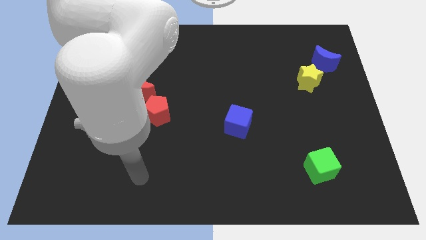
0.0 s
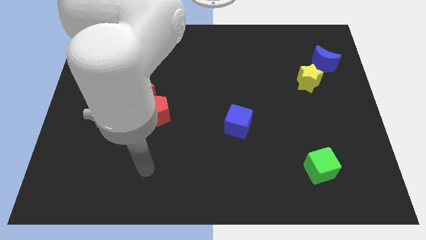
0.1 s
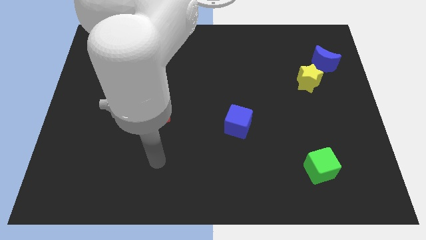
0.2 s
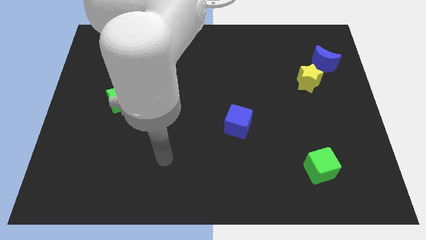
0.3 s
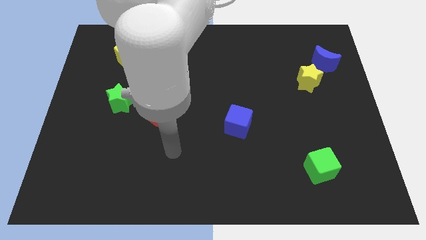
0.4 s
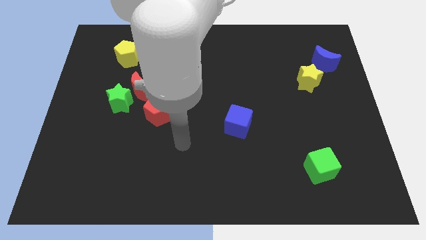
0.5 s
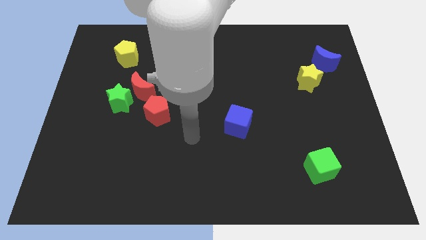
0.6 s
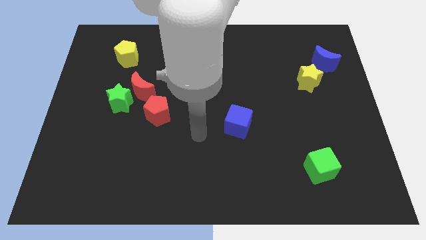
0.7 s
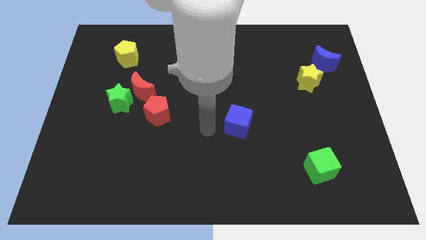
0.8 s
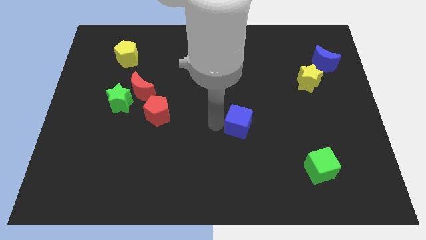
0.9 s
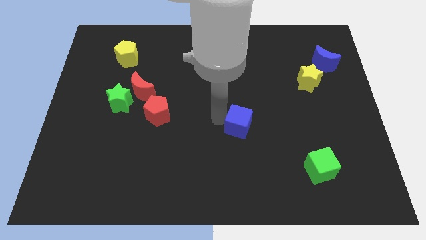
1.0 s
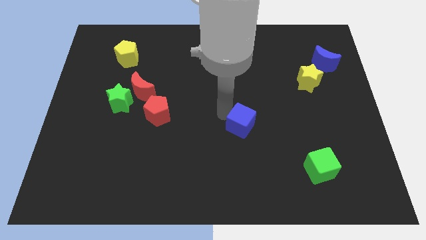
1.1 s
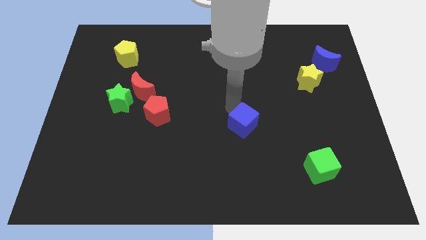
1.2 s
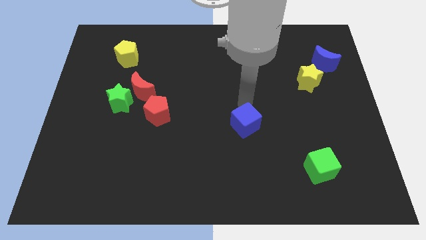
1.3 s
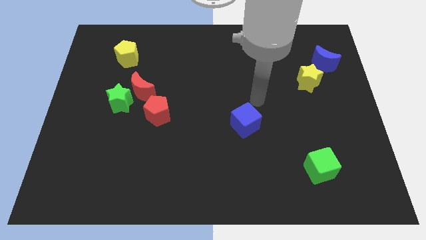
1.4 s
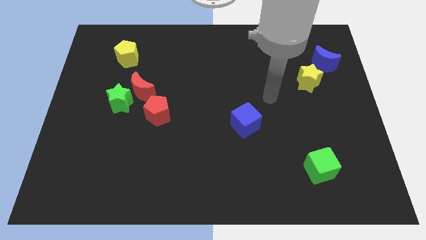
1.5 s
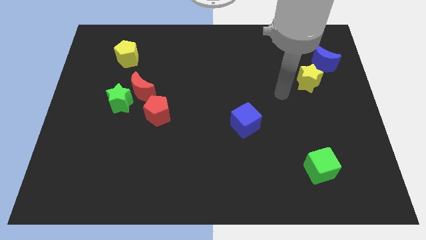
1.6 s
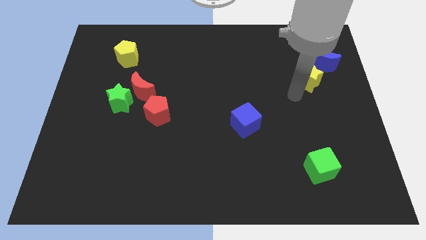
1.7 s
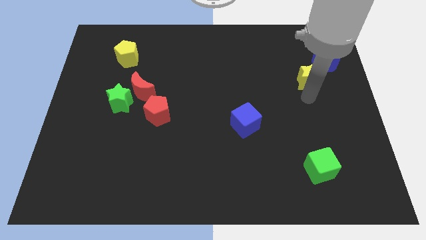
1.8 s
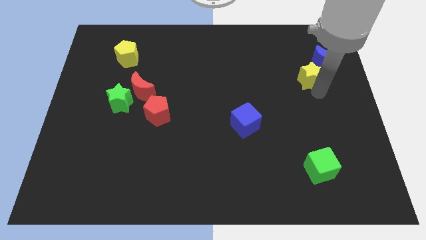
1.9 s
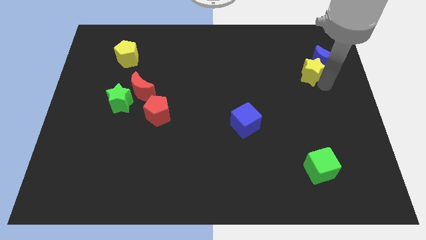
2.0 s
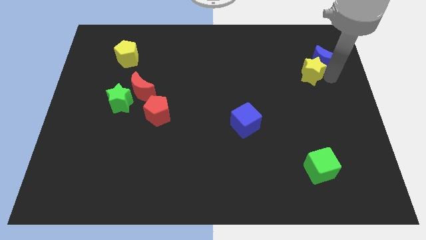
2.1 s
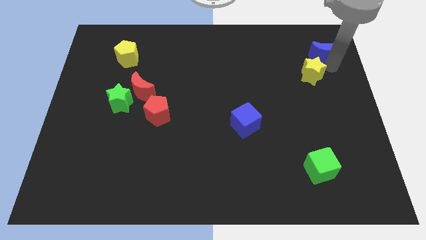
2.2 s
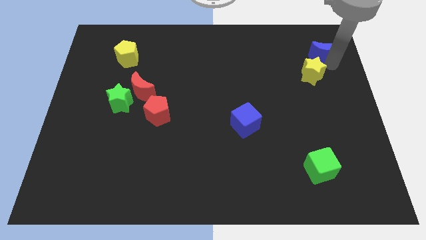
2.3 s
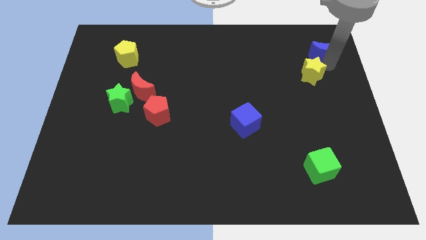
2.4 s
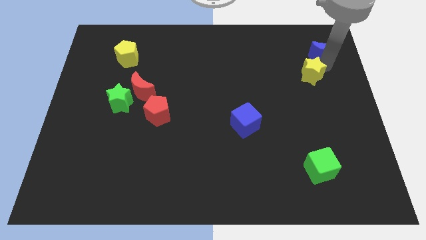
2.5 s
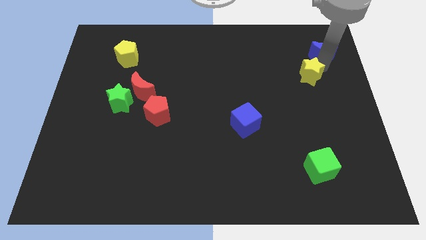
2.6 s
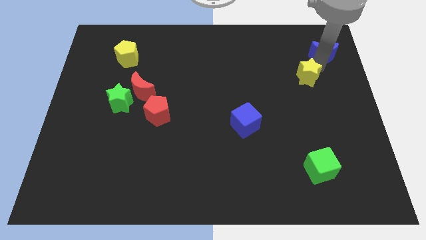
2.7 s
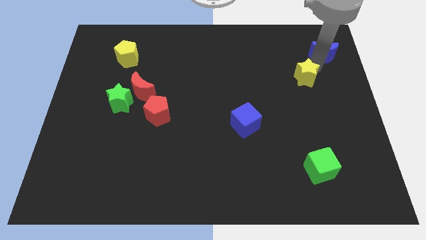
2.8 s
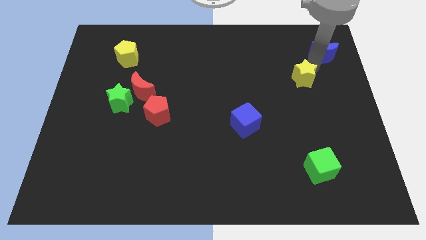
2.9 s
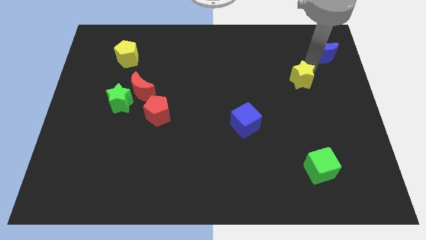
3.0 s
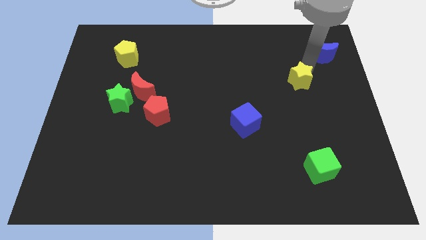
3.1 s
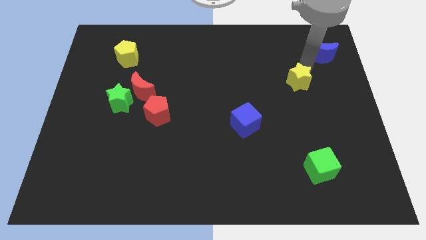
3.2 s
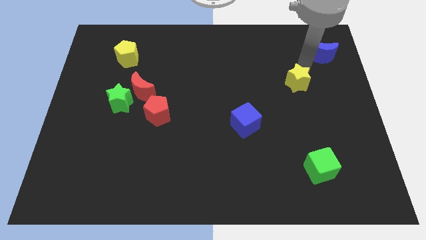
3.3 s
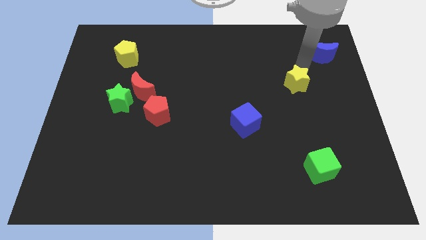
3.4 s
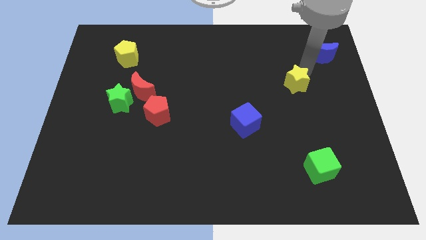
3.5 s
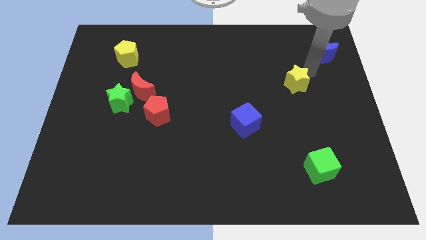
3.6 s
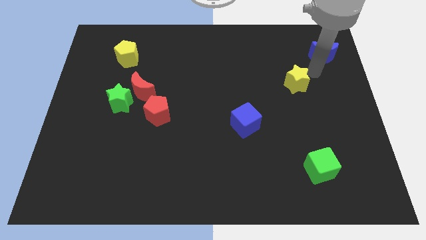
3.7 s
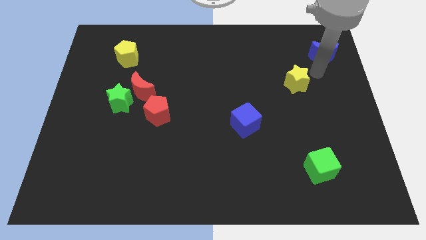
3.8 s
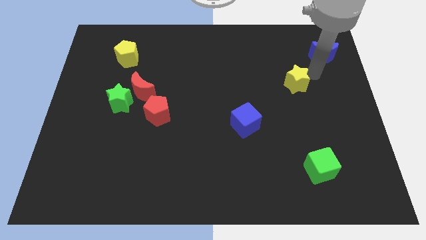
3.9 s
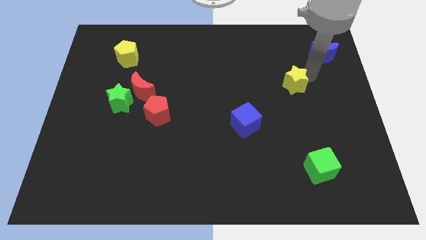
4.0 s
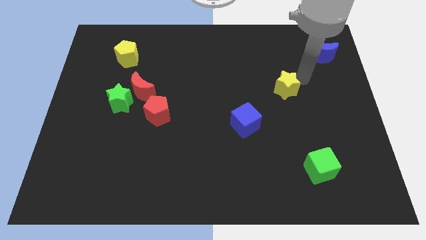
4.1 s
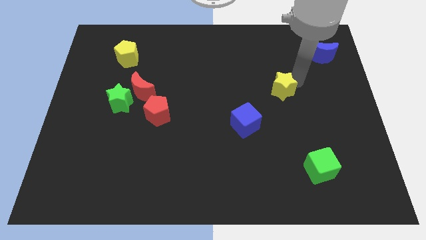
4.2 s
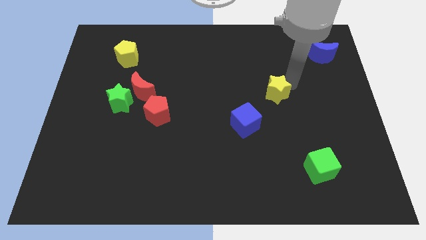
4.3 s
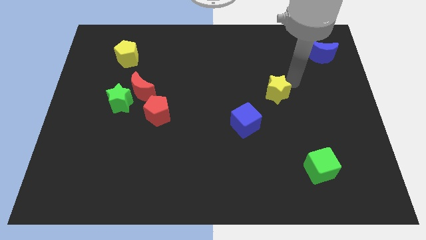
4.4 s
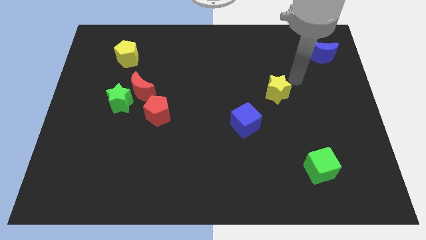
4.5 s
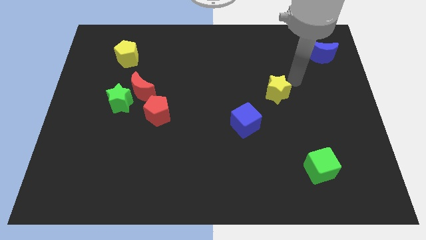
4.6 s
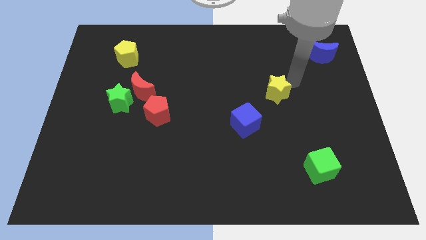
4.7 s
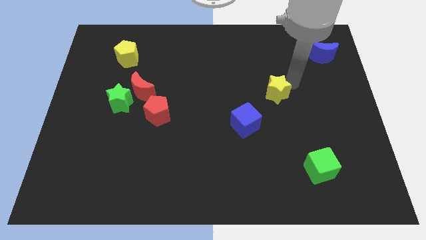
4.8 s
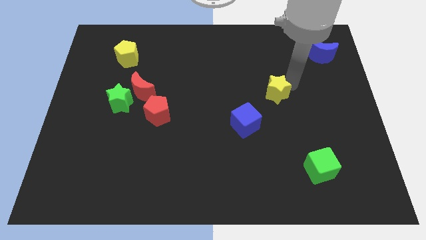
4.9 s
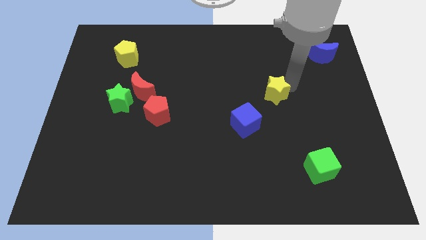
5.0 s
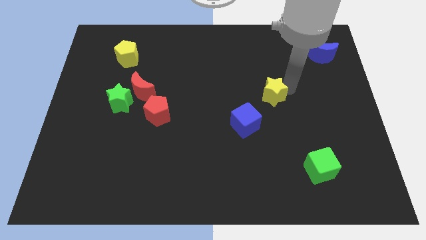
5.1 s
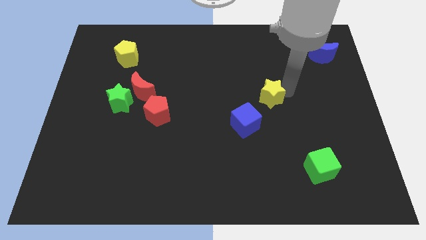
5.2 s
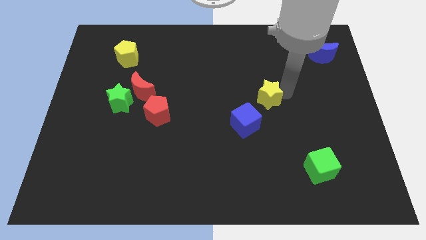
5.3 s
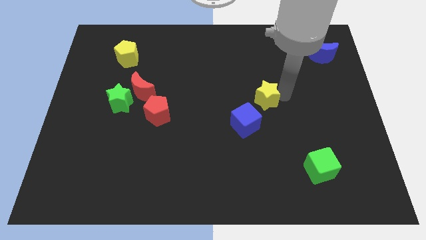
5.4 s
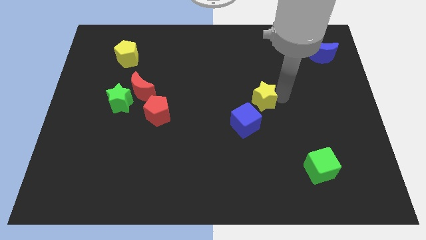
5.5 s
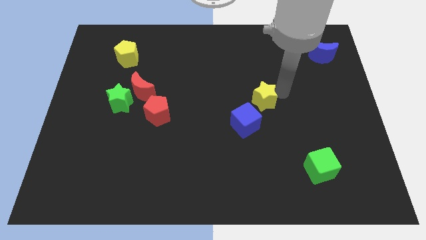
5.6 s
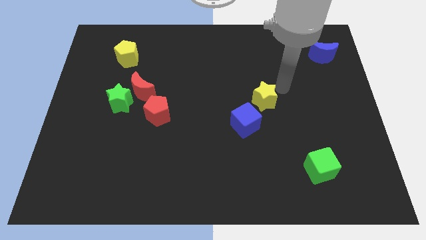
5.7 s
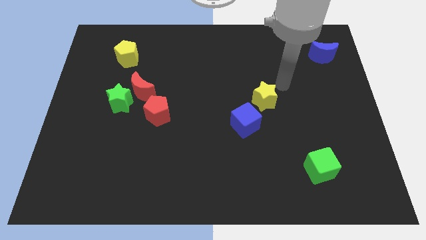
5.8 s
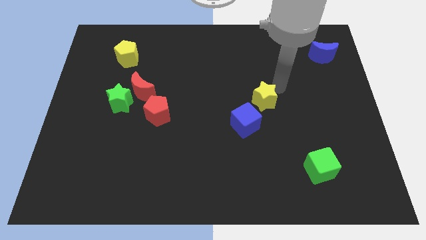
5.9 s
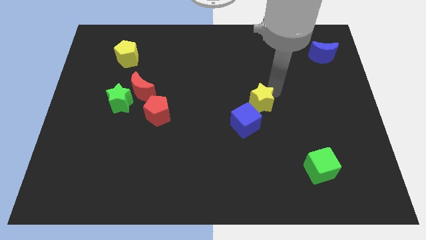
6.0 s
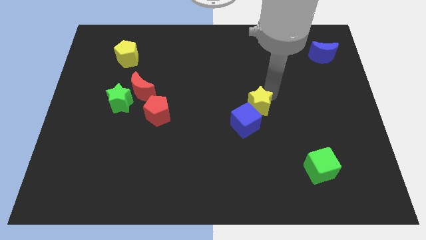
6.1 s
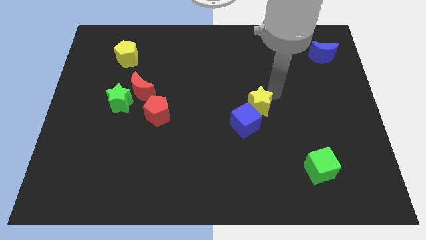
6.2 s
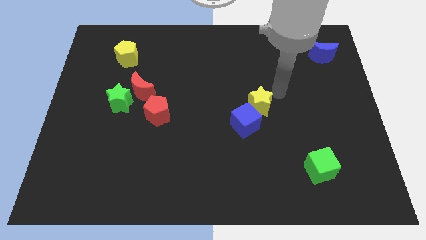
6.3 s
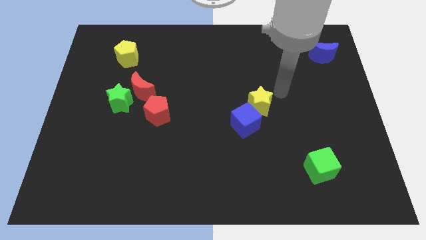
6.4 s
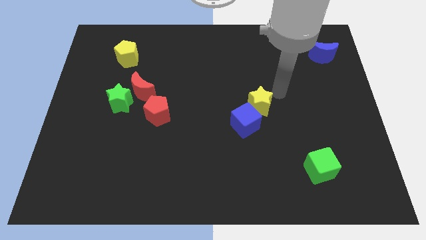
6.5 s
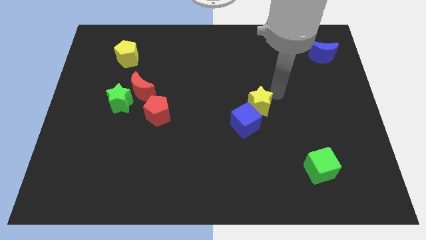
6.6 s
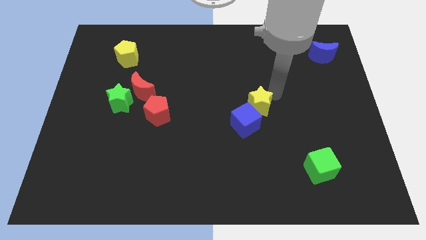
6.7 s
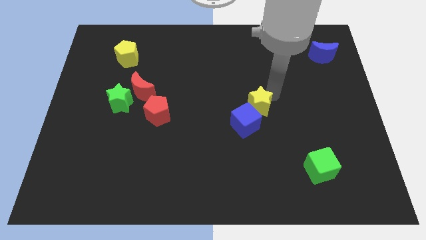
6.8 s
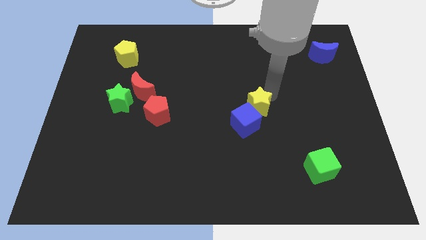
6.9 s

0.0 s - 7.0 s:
slide the yellow star to the blue cube

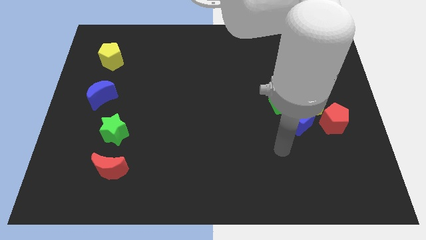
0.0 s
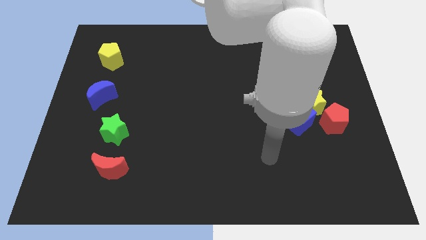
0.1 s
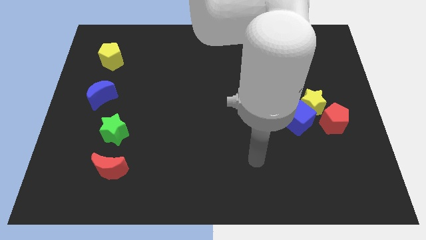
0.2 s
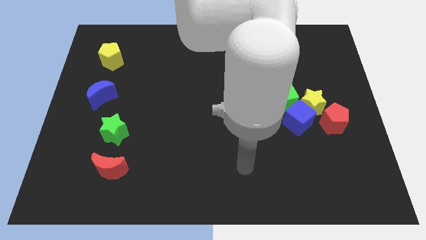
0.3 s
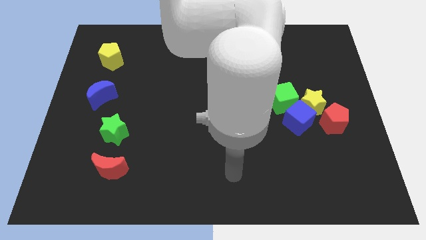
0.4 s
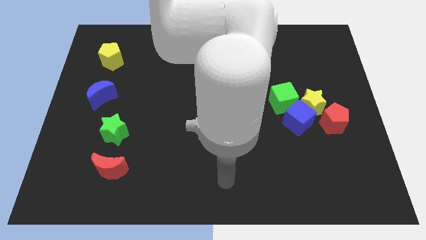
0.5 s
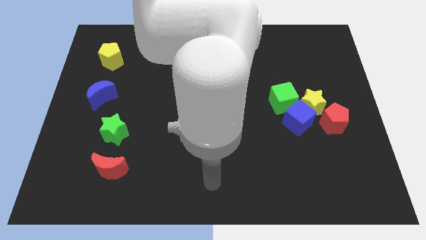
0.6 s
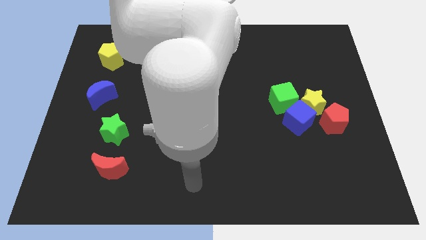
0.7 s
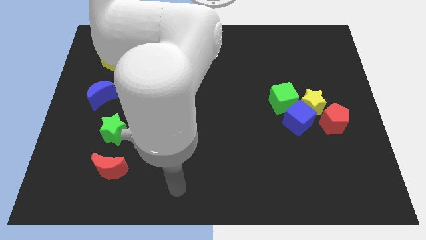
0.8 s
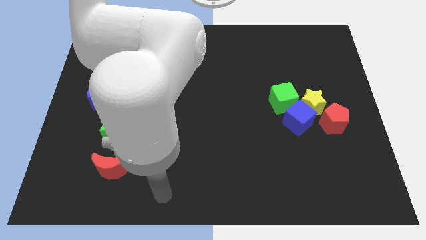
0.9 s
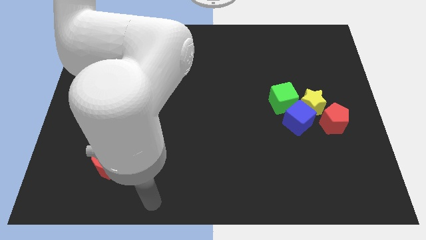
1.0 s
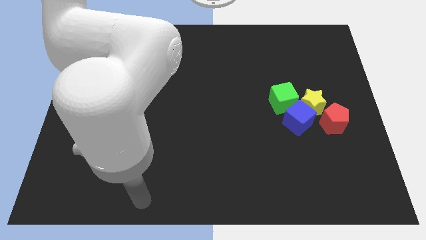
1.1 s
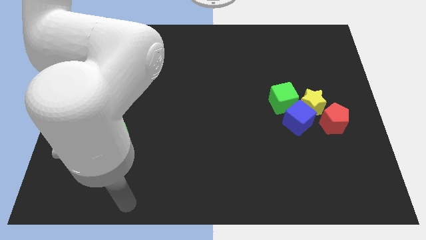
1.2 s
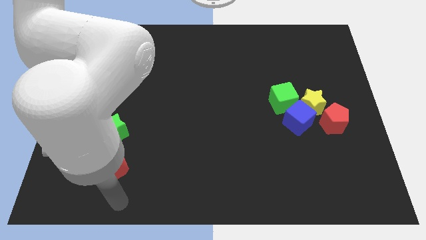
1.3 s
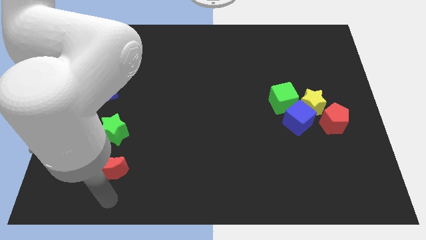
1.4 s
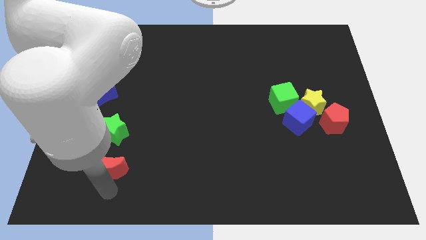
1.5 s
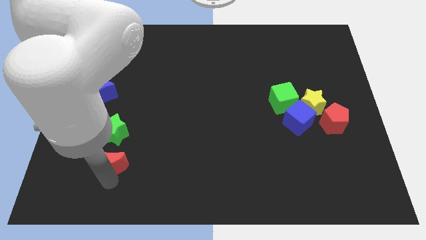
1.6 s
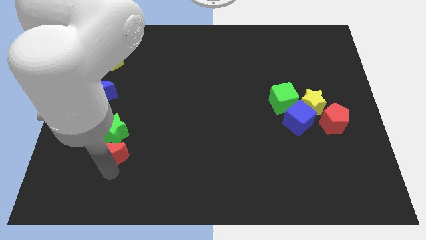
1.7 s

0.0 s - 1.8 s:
push the red moon towards the green star
